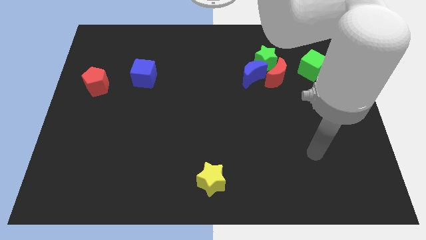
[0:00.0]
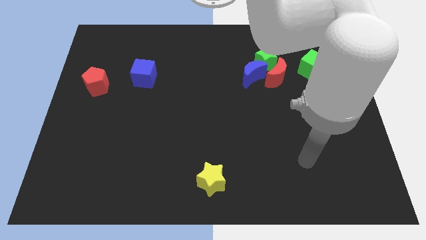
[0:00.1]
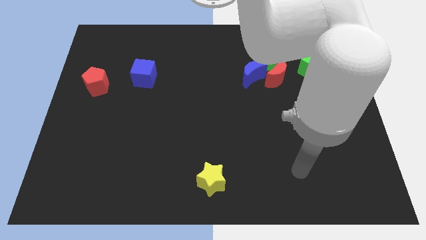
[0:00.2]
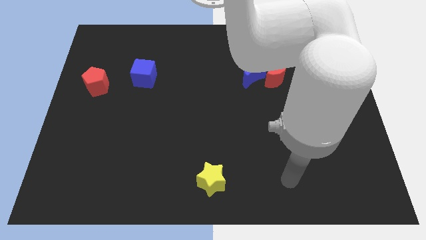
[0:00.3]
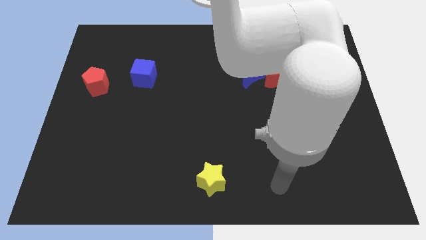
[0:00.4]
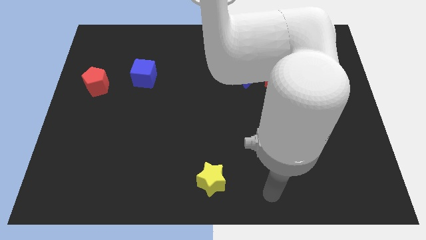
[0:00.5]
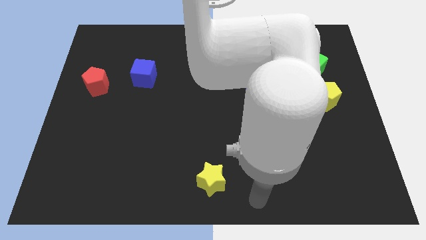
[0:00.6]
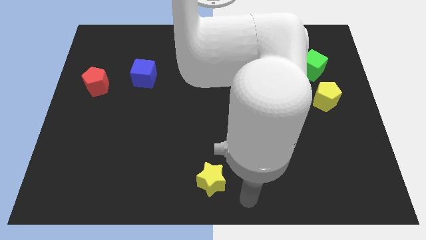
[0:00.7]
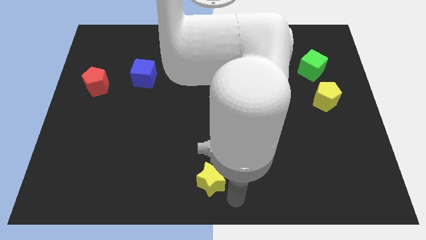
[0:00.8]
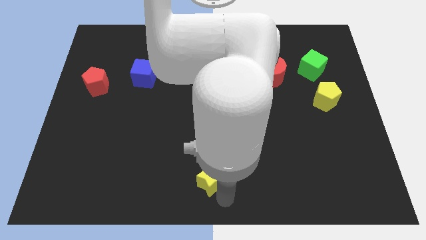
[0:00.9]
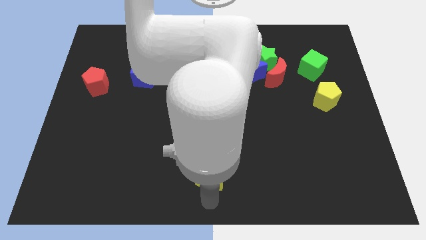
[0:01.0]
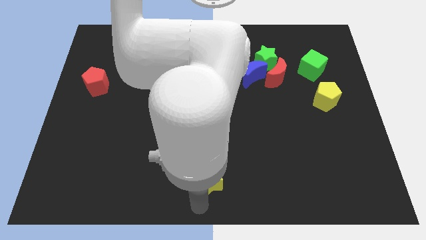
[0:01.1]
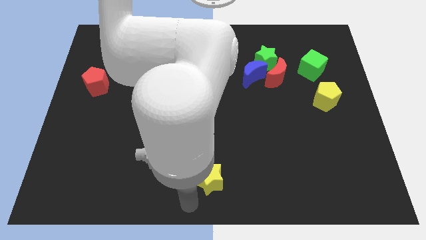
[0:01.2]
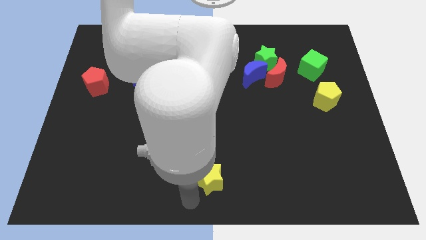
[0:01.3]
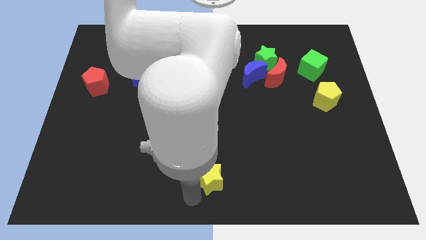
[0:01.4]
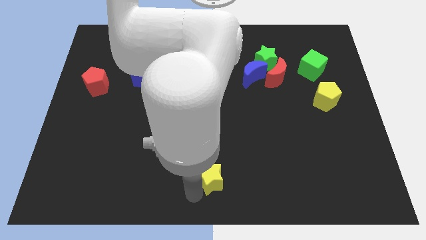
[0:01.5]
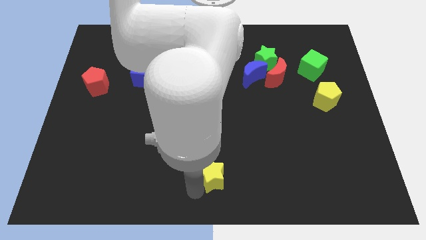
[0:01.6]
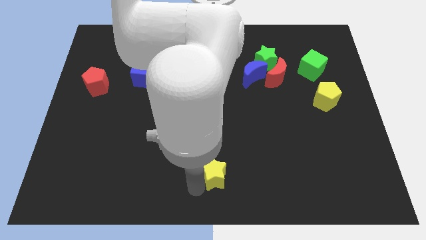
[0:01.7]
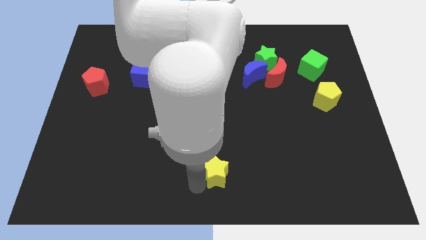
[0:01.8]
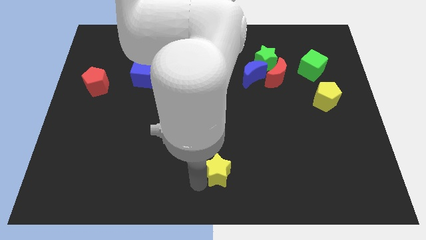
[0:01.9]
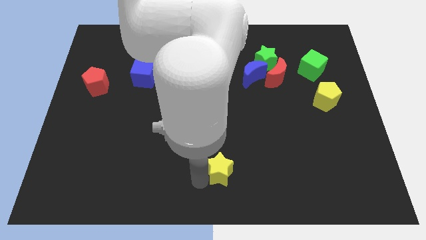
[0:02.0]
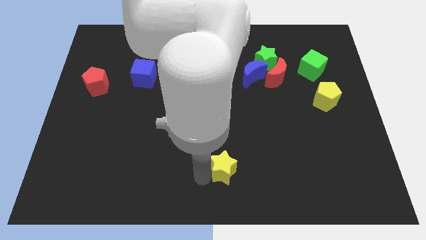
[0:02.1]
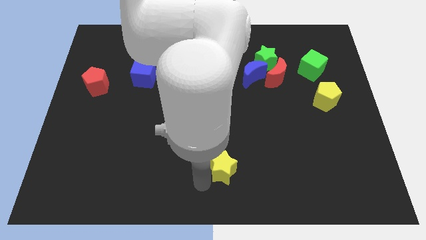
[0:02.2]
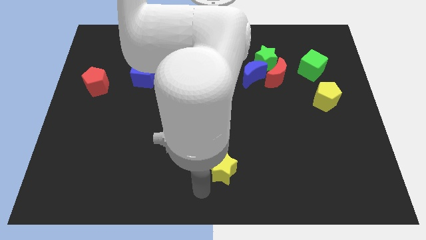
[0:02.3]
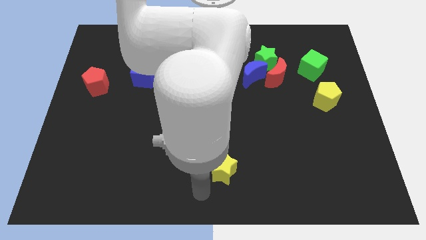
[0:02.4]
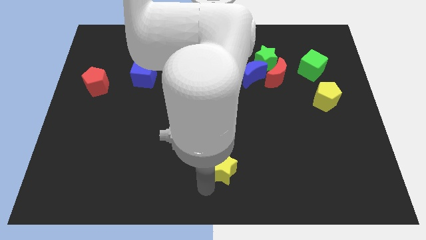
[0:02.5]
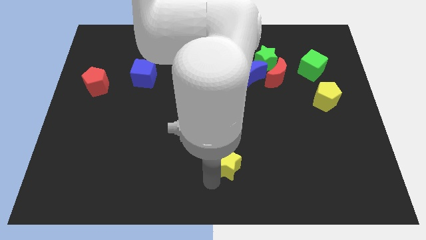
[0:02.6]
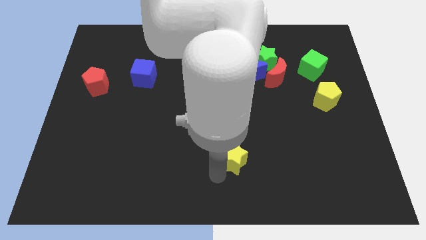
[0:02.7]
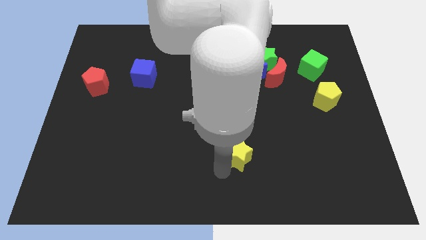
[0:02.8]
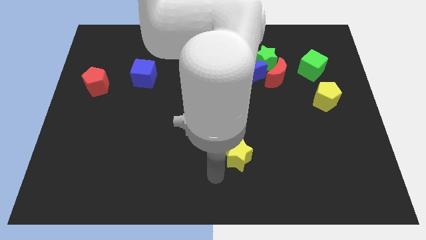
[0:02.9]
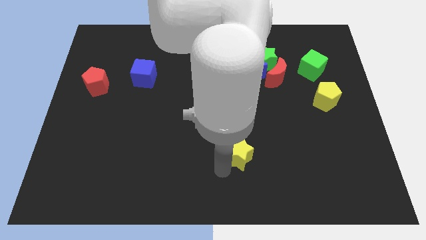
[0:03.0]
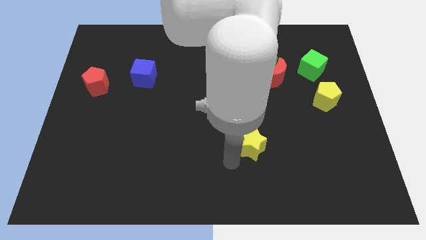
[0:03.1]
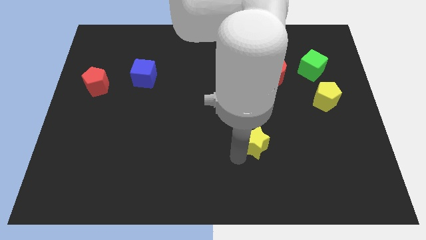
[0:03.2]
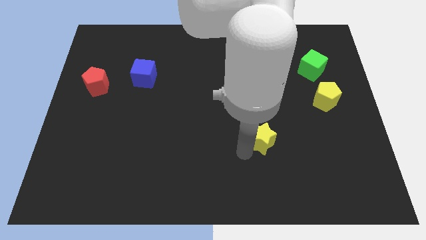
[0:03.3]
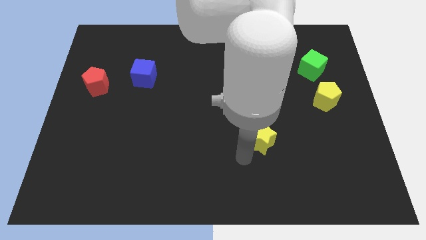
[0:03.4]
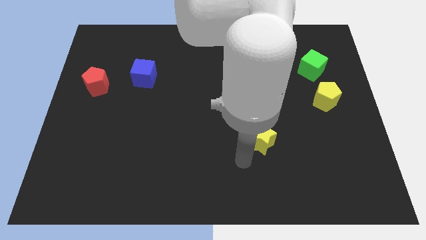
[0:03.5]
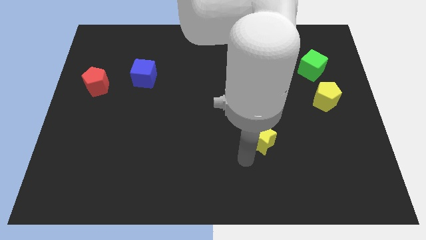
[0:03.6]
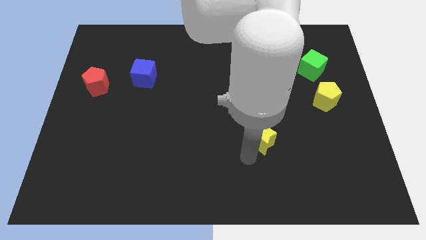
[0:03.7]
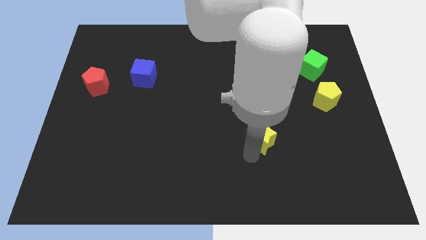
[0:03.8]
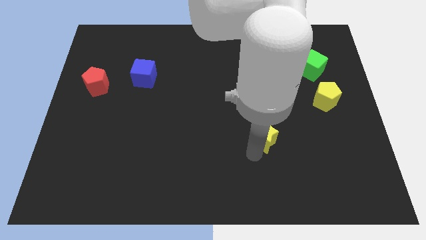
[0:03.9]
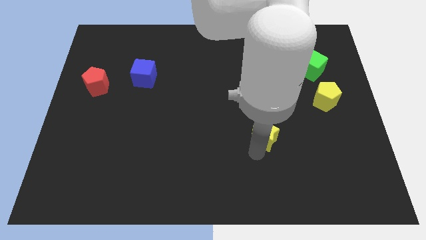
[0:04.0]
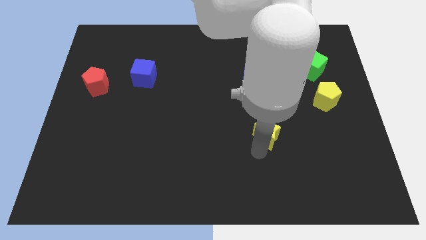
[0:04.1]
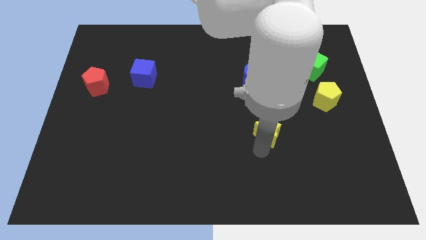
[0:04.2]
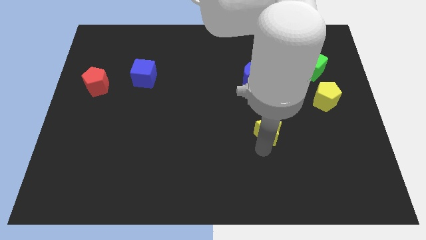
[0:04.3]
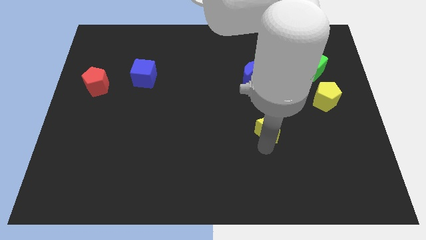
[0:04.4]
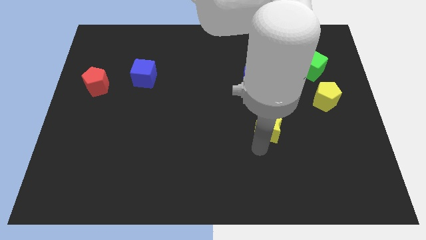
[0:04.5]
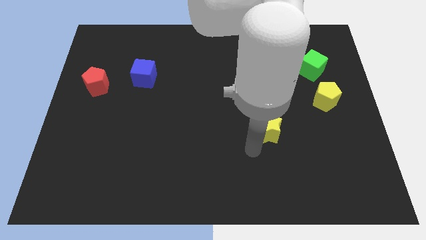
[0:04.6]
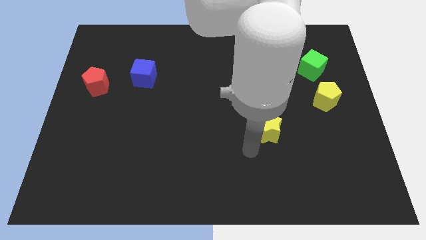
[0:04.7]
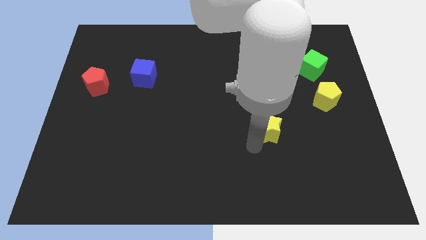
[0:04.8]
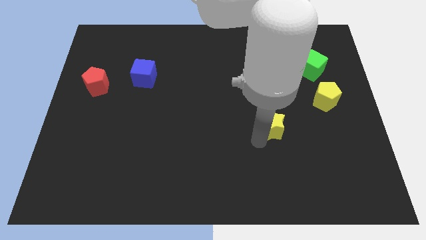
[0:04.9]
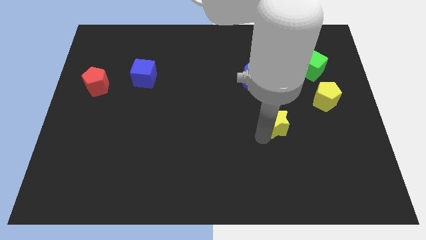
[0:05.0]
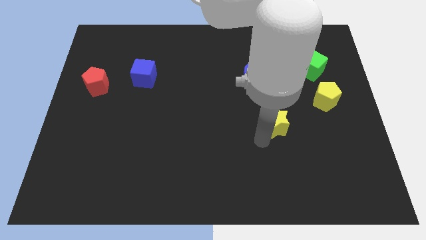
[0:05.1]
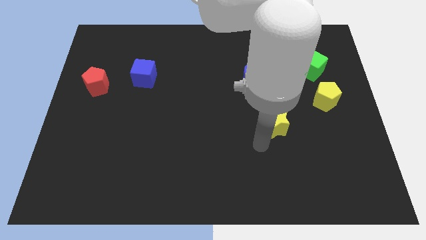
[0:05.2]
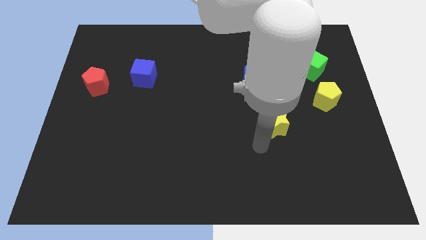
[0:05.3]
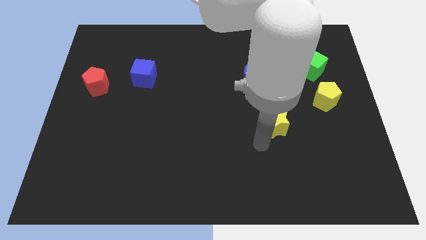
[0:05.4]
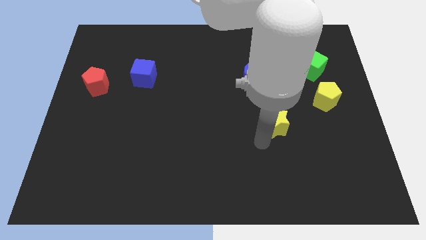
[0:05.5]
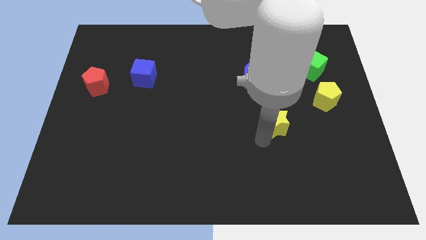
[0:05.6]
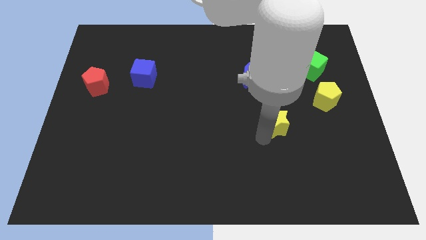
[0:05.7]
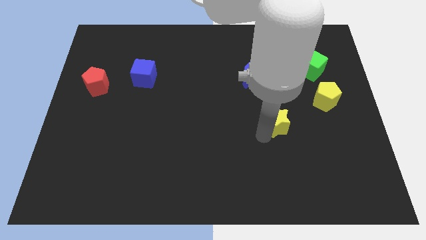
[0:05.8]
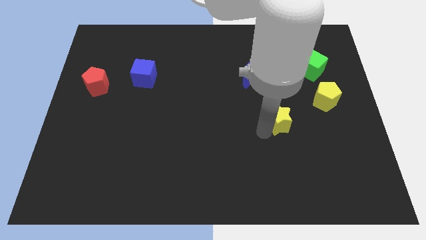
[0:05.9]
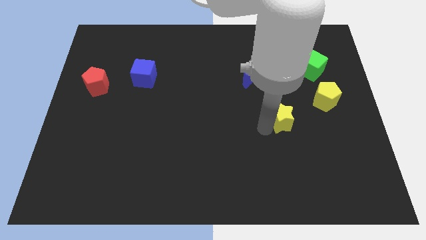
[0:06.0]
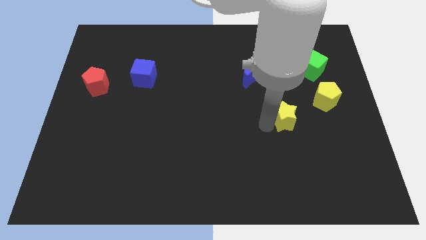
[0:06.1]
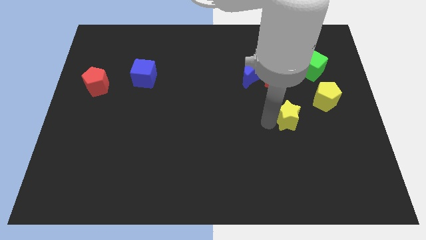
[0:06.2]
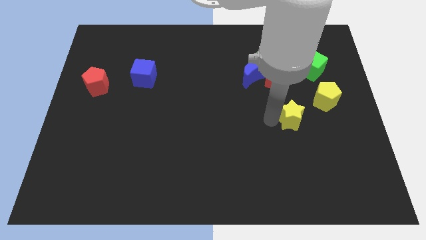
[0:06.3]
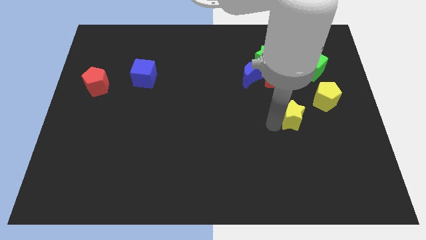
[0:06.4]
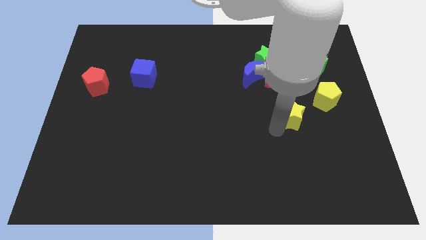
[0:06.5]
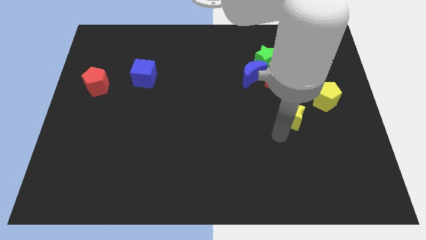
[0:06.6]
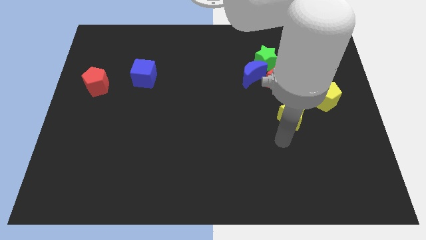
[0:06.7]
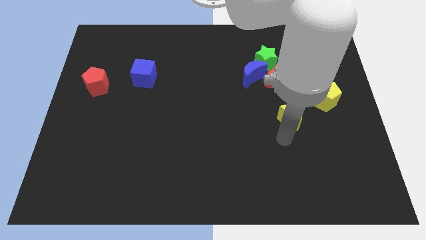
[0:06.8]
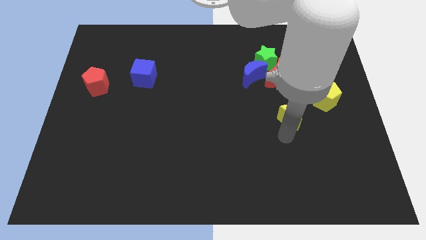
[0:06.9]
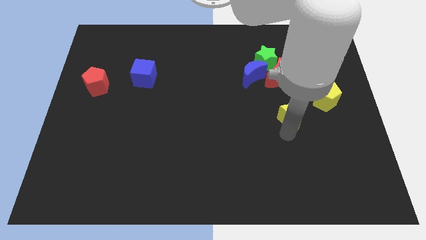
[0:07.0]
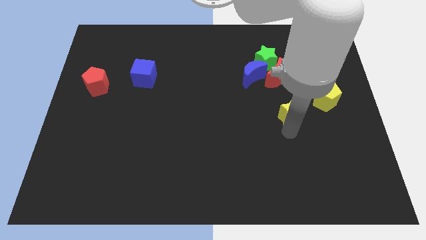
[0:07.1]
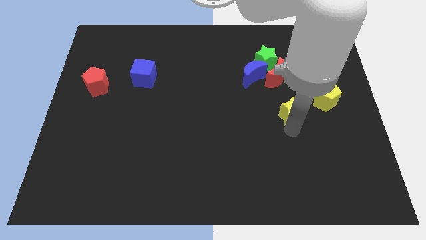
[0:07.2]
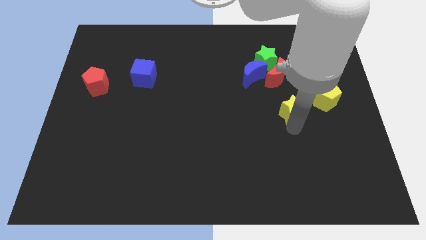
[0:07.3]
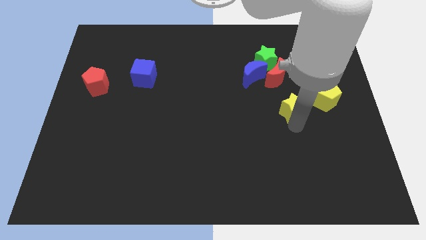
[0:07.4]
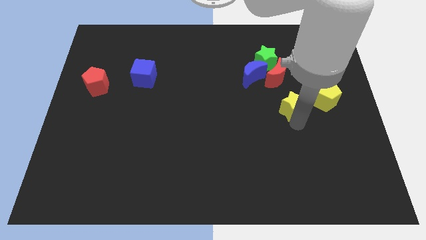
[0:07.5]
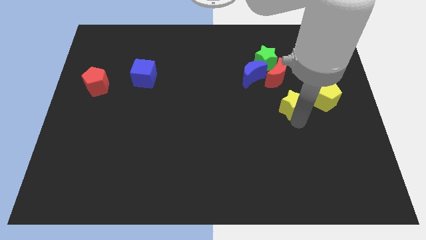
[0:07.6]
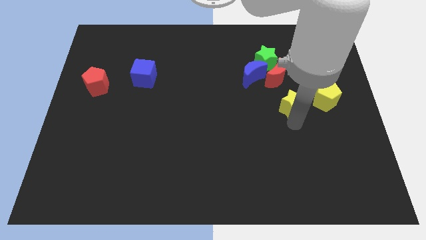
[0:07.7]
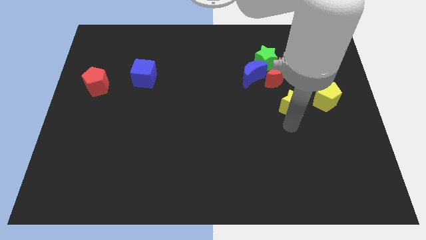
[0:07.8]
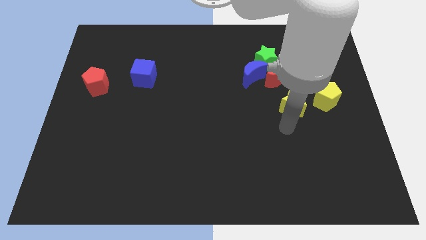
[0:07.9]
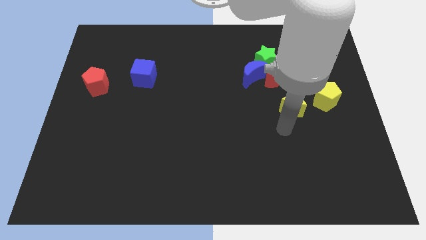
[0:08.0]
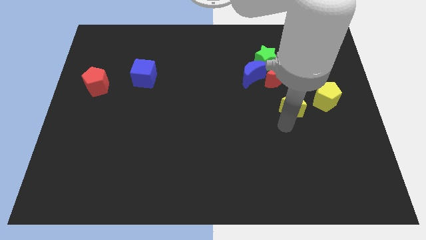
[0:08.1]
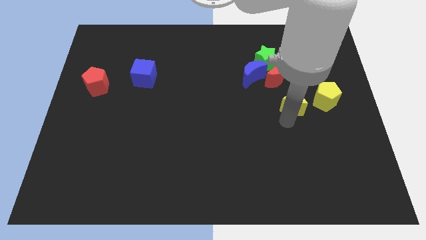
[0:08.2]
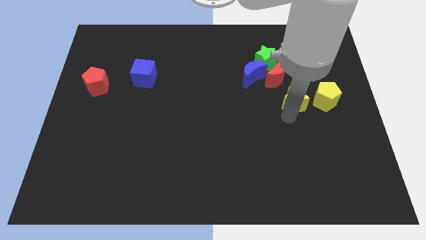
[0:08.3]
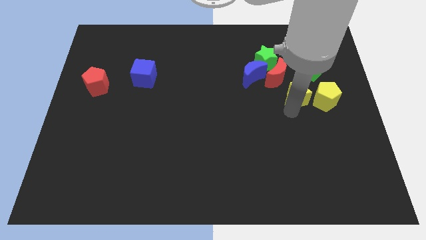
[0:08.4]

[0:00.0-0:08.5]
put the yellow star to the top left of the yellow pentagon
